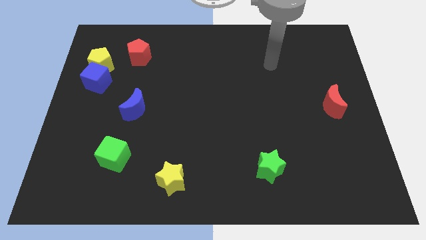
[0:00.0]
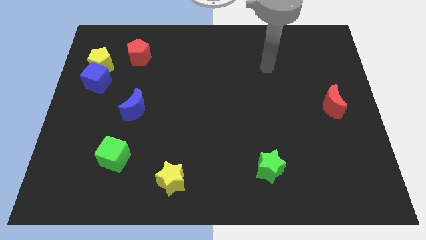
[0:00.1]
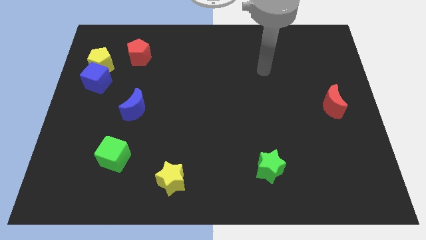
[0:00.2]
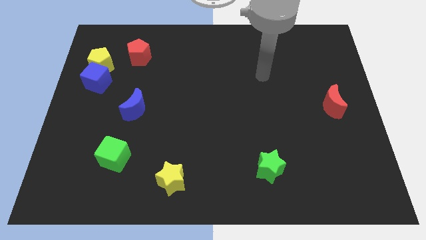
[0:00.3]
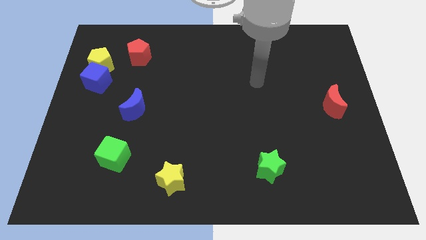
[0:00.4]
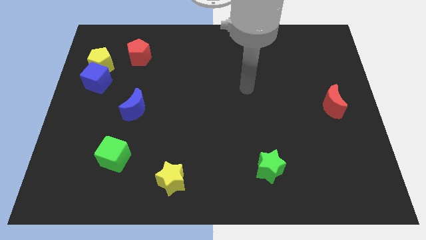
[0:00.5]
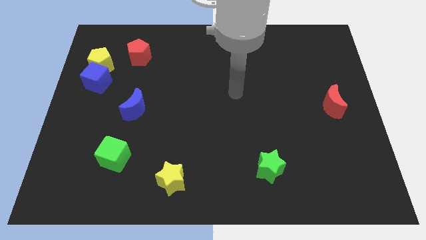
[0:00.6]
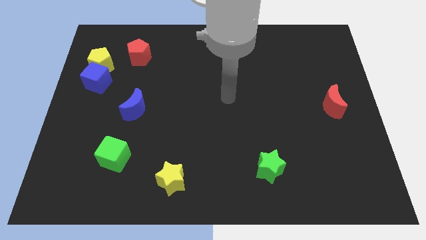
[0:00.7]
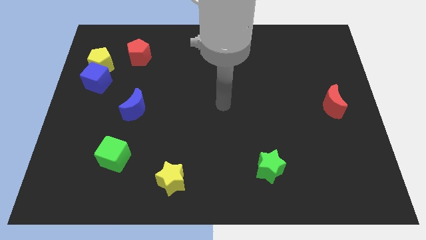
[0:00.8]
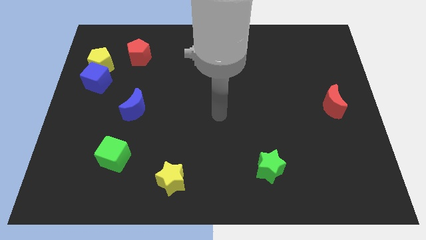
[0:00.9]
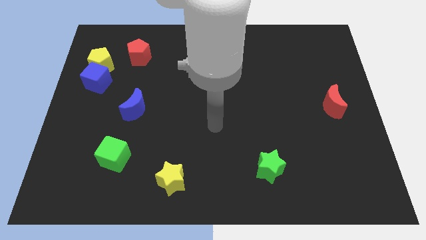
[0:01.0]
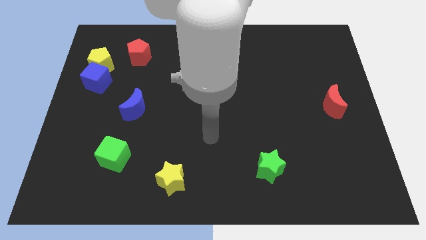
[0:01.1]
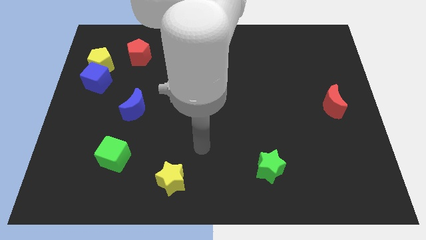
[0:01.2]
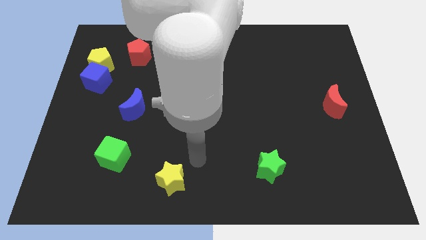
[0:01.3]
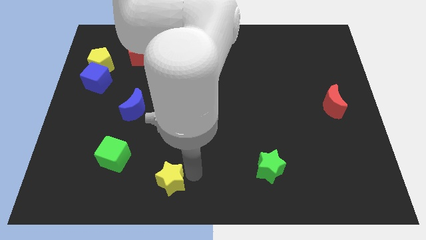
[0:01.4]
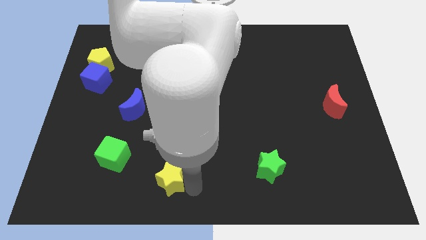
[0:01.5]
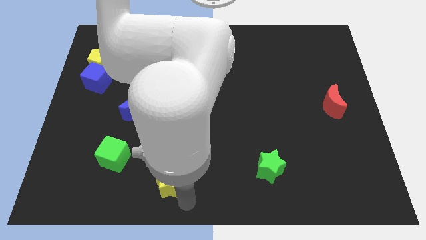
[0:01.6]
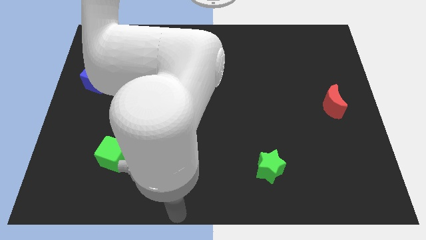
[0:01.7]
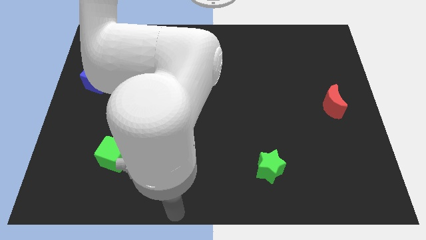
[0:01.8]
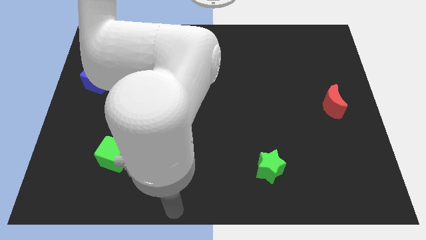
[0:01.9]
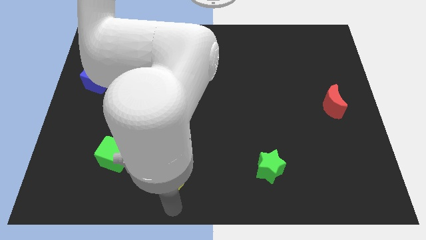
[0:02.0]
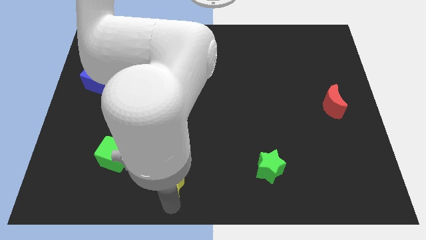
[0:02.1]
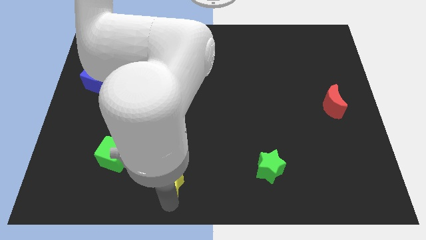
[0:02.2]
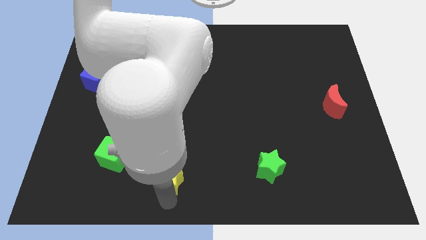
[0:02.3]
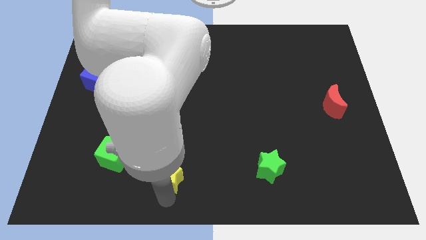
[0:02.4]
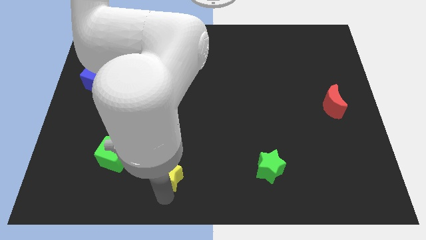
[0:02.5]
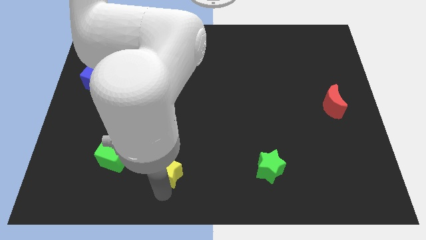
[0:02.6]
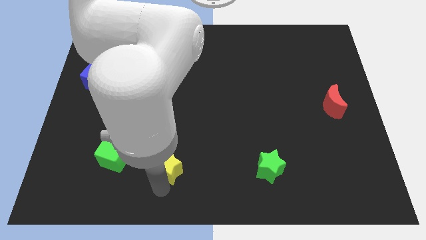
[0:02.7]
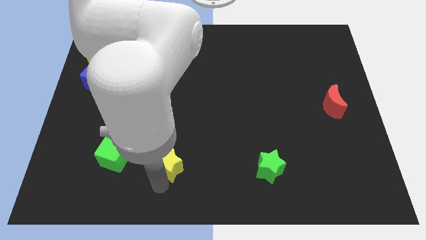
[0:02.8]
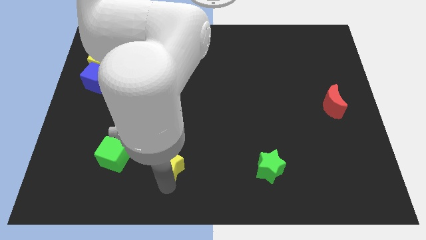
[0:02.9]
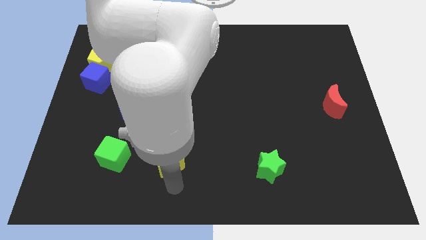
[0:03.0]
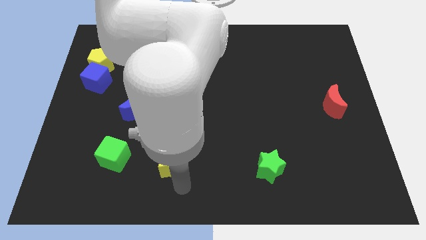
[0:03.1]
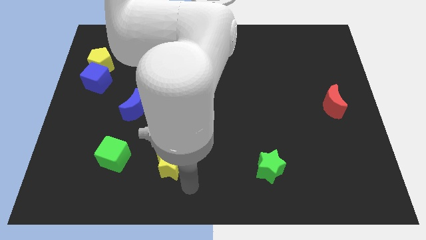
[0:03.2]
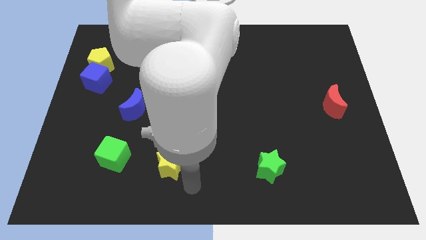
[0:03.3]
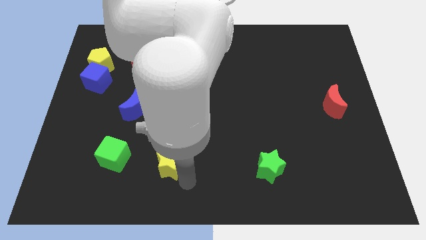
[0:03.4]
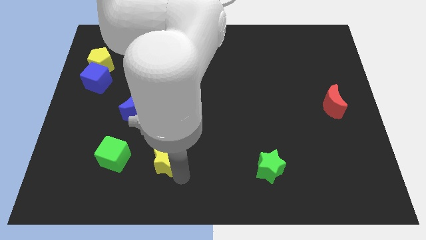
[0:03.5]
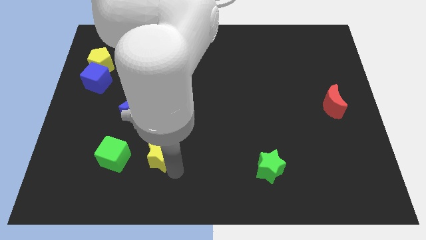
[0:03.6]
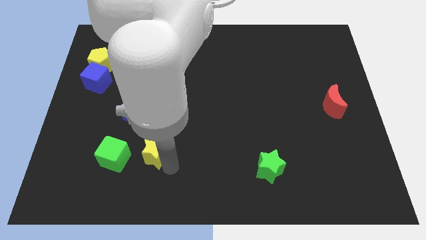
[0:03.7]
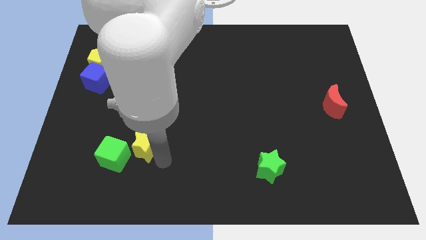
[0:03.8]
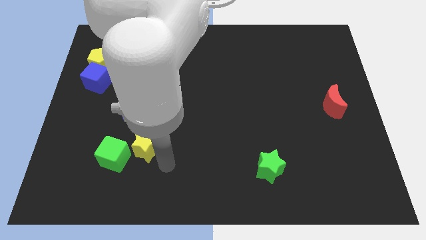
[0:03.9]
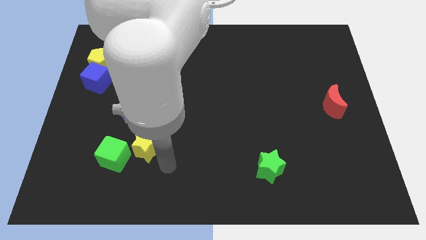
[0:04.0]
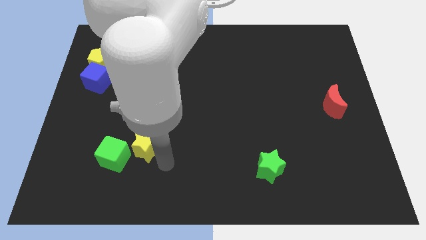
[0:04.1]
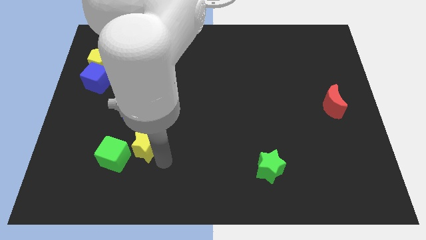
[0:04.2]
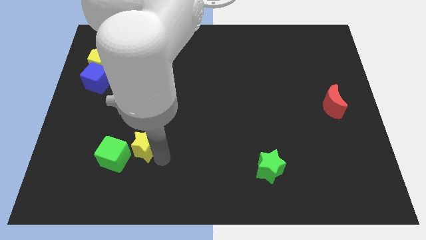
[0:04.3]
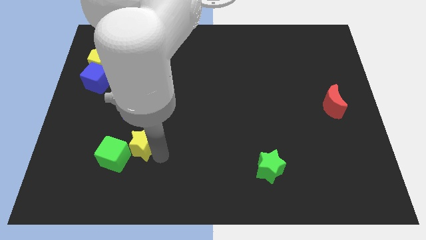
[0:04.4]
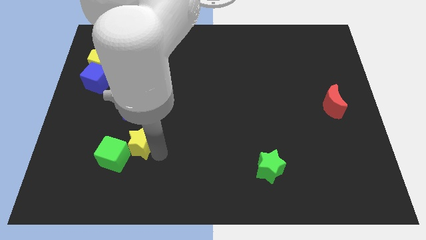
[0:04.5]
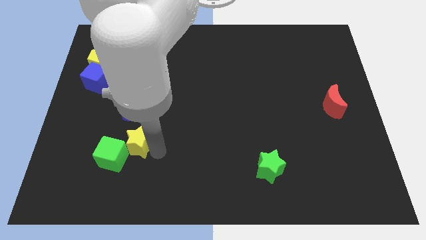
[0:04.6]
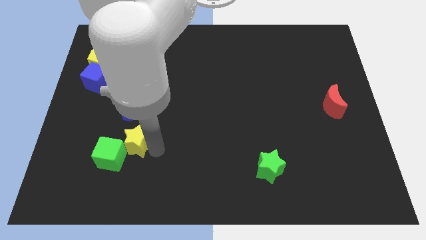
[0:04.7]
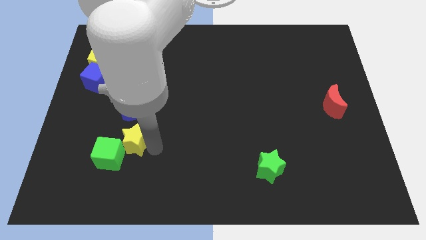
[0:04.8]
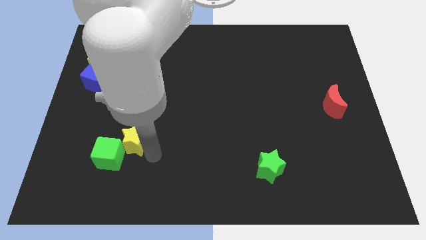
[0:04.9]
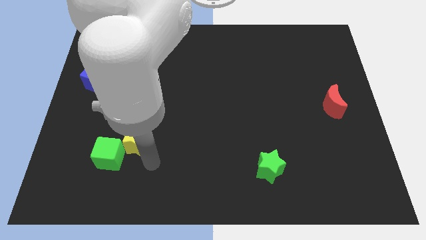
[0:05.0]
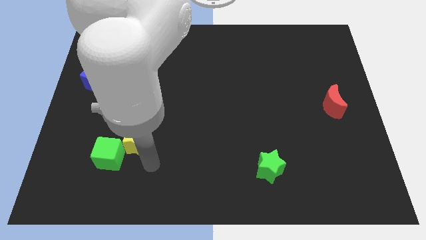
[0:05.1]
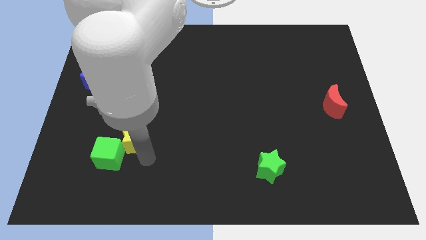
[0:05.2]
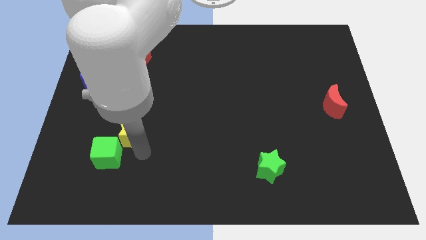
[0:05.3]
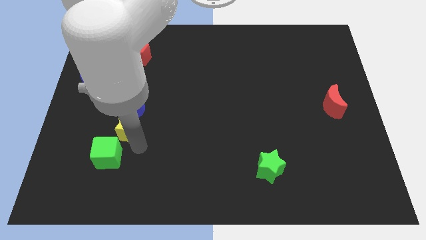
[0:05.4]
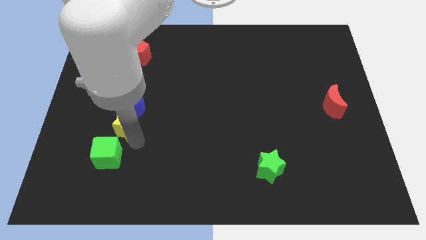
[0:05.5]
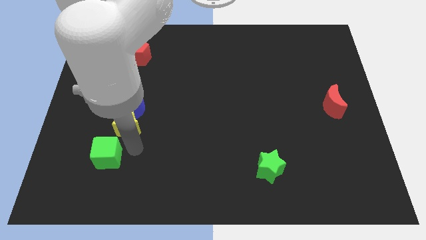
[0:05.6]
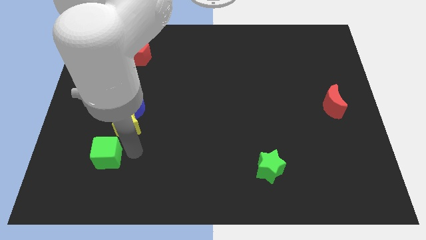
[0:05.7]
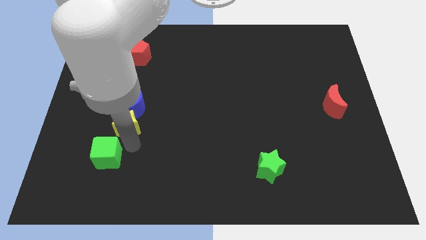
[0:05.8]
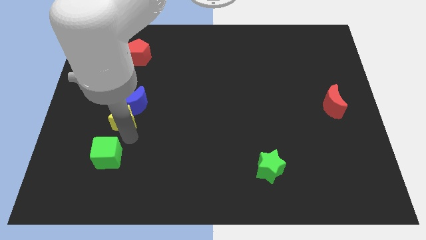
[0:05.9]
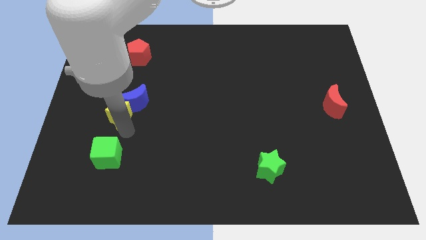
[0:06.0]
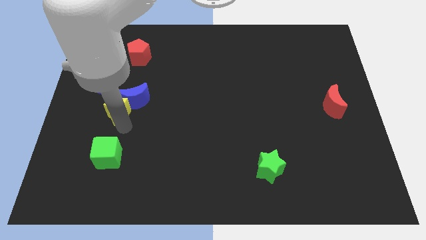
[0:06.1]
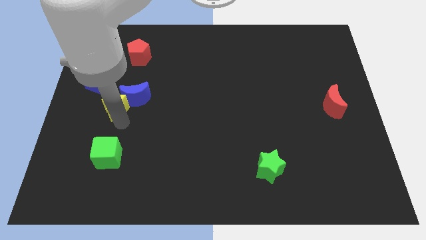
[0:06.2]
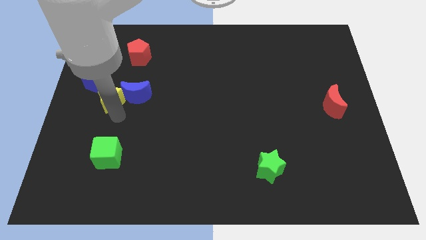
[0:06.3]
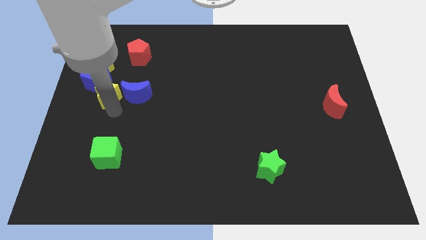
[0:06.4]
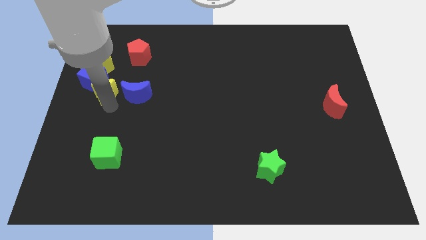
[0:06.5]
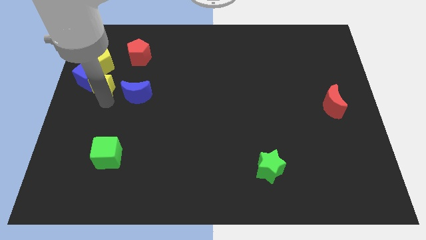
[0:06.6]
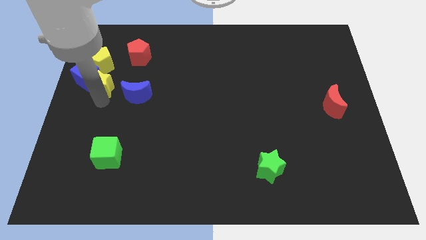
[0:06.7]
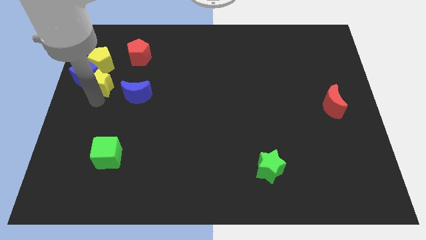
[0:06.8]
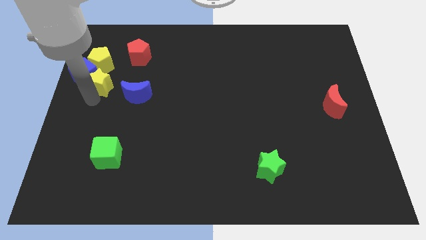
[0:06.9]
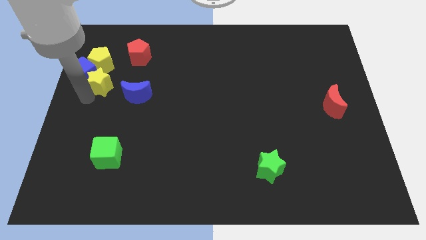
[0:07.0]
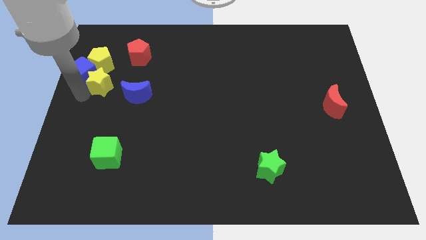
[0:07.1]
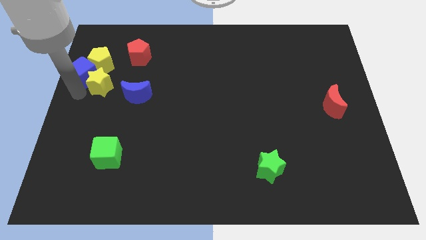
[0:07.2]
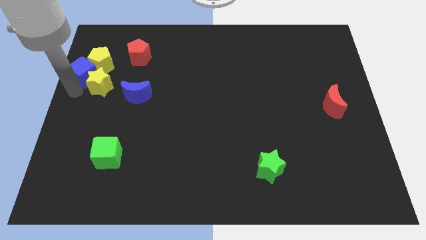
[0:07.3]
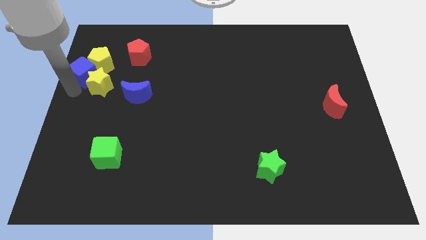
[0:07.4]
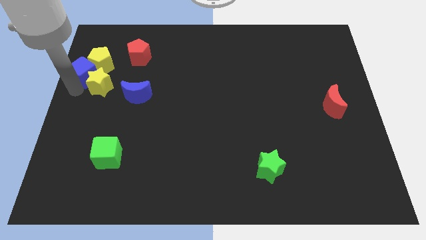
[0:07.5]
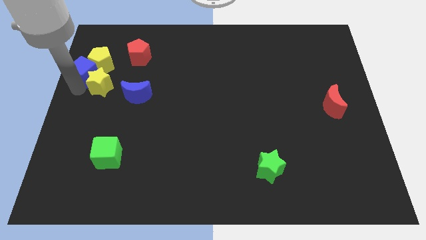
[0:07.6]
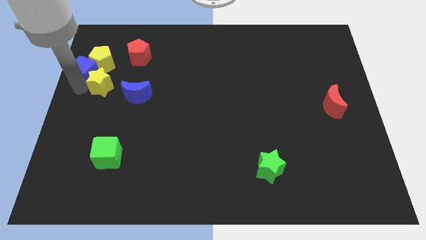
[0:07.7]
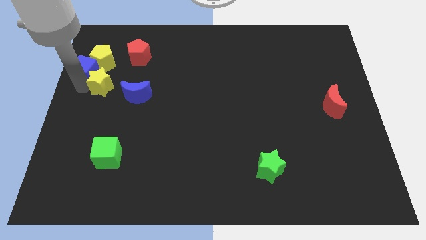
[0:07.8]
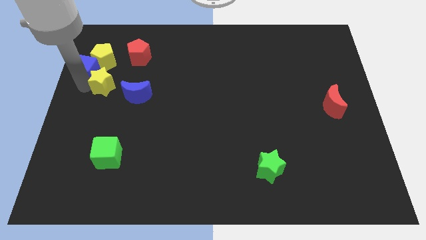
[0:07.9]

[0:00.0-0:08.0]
put the yellow star to the bottom left of the red pentagon
